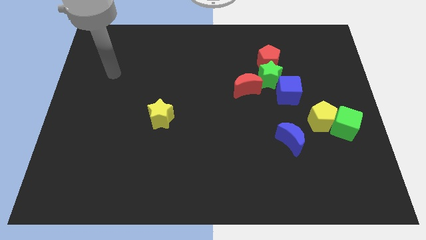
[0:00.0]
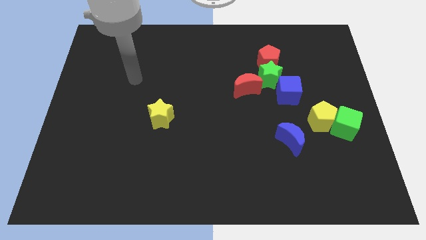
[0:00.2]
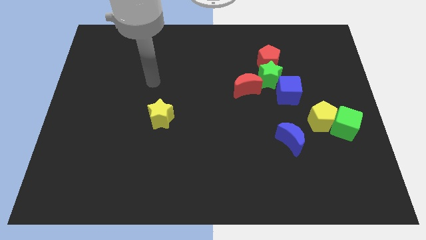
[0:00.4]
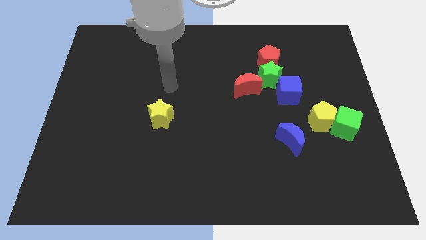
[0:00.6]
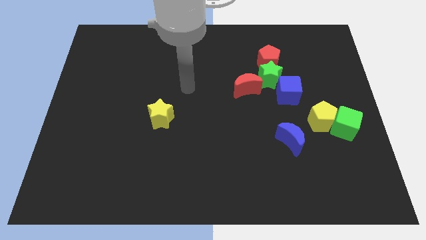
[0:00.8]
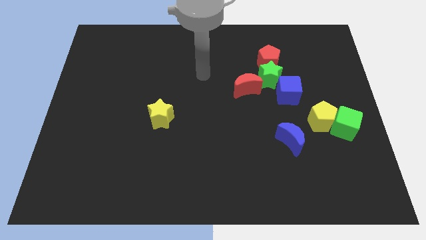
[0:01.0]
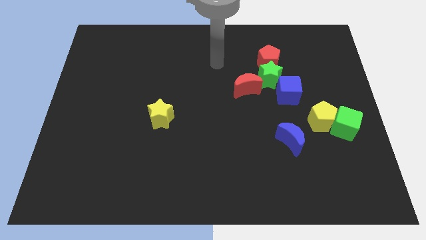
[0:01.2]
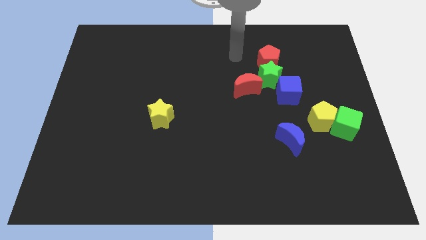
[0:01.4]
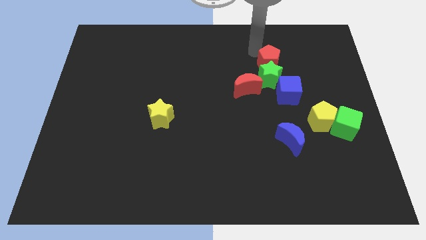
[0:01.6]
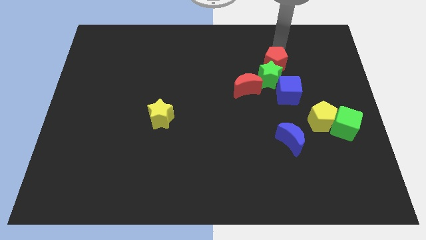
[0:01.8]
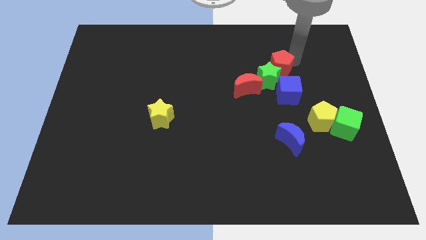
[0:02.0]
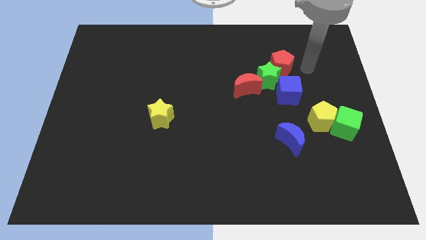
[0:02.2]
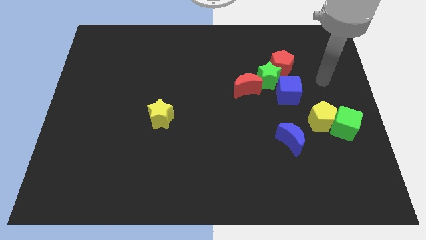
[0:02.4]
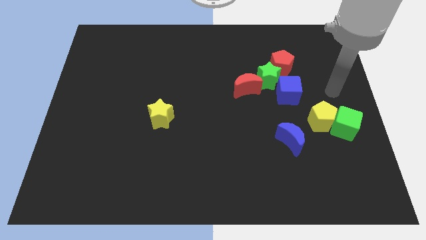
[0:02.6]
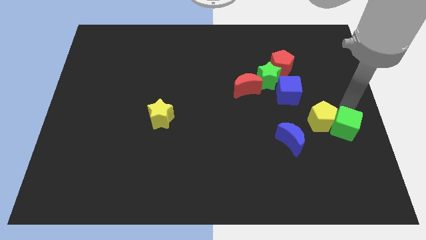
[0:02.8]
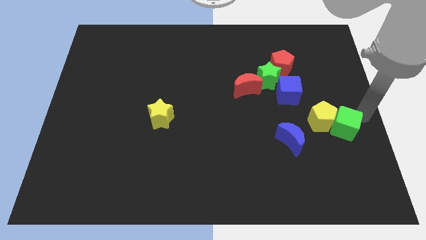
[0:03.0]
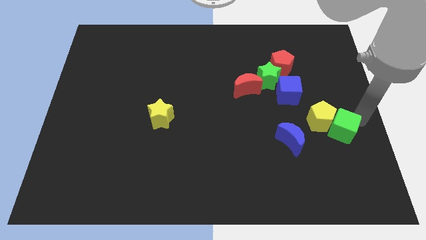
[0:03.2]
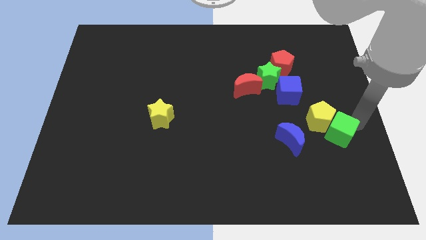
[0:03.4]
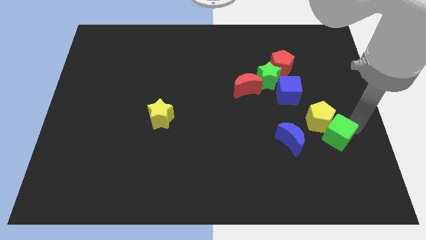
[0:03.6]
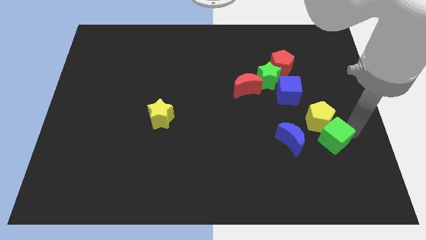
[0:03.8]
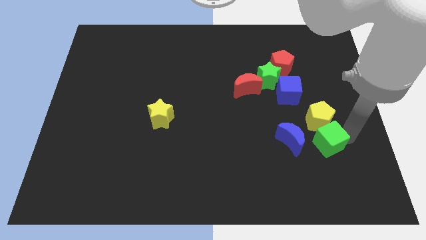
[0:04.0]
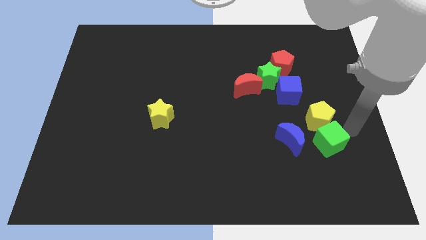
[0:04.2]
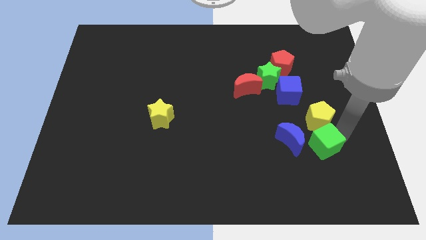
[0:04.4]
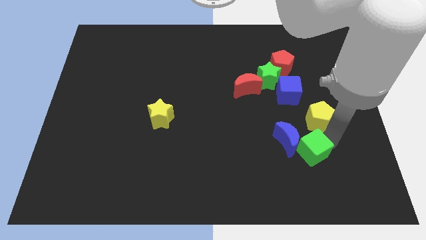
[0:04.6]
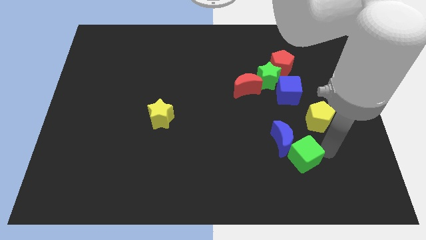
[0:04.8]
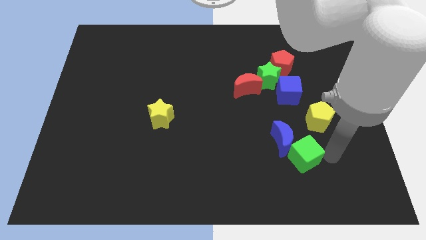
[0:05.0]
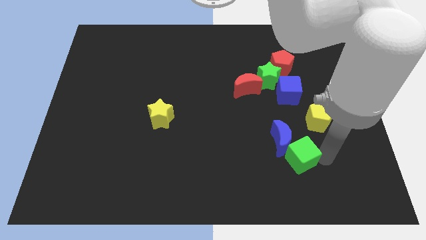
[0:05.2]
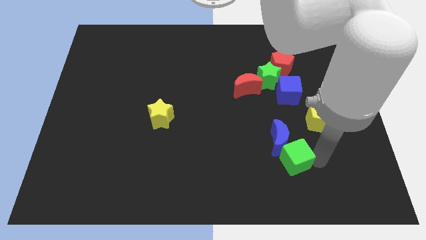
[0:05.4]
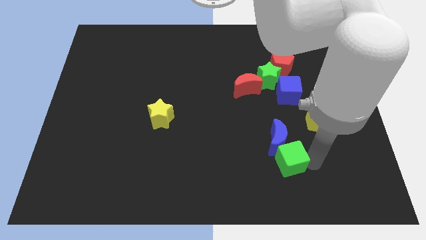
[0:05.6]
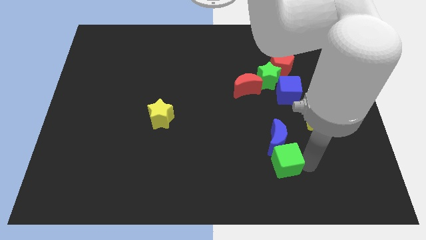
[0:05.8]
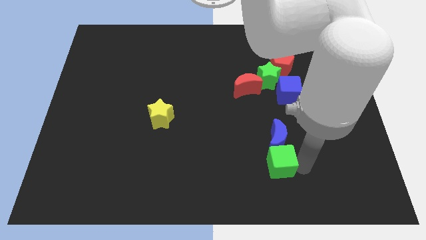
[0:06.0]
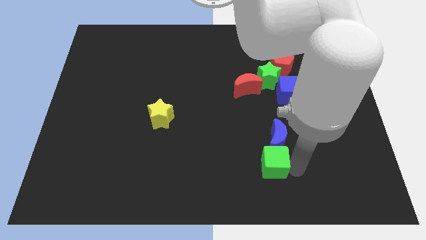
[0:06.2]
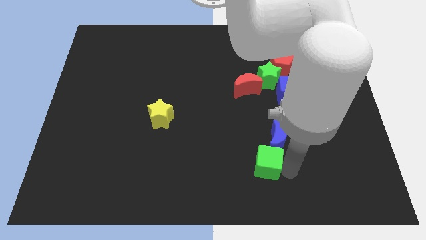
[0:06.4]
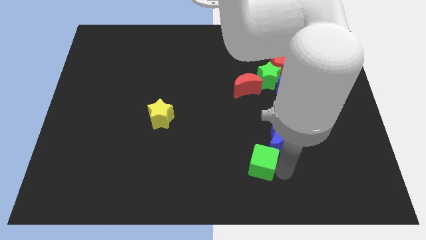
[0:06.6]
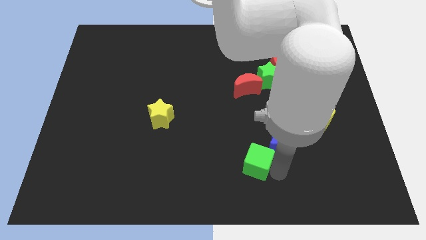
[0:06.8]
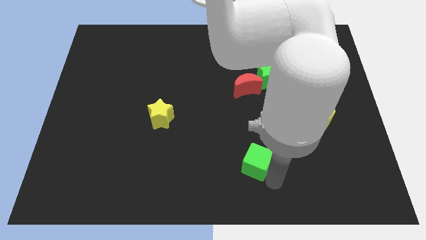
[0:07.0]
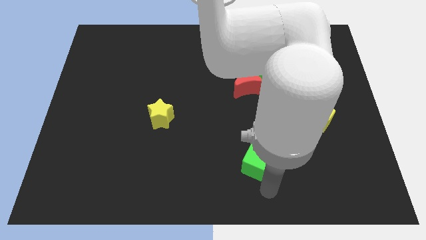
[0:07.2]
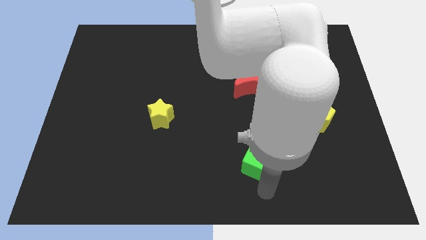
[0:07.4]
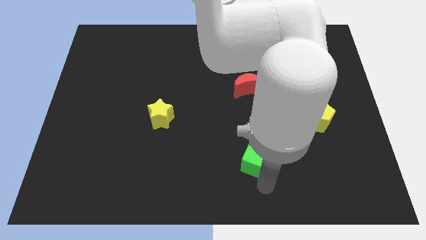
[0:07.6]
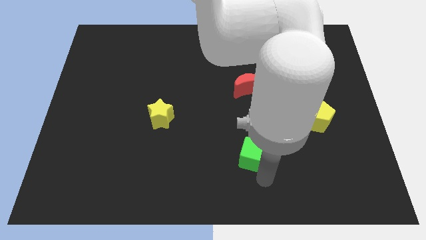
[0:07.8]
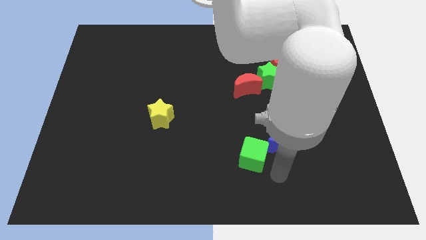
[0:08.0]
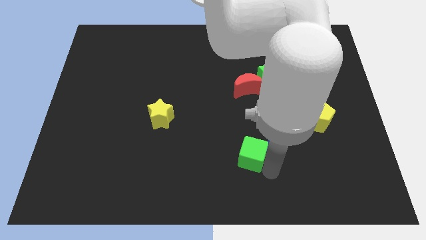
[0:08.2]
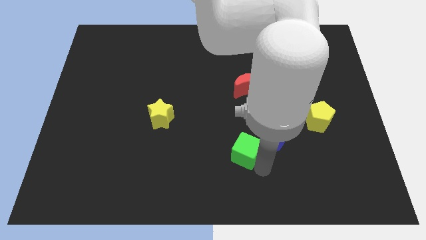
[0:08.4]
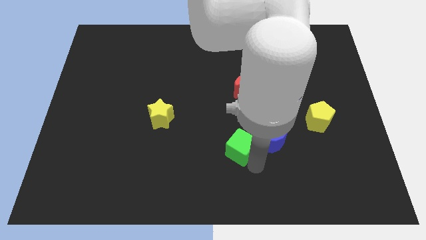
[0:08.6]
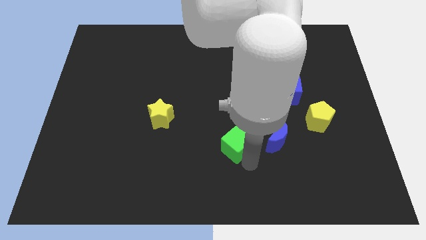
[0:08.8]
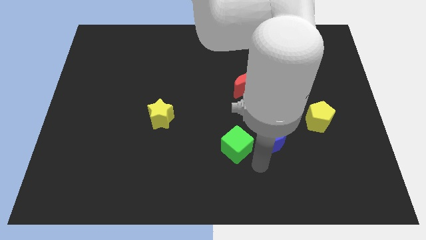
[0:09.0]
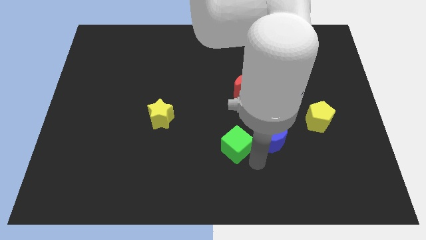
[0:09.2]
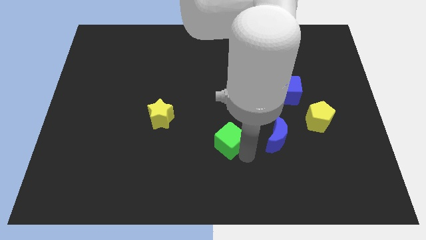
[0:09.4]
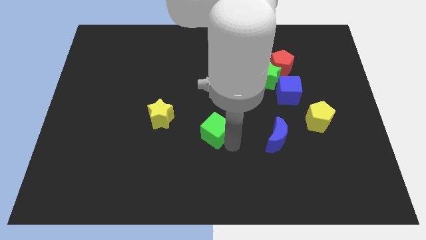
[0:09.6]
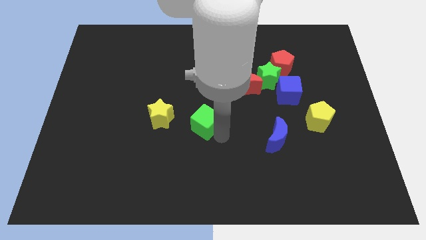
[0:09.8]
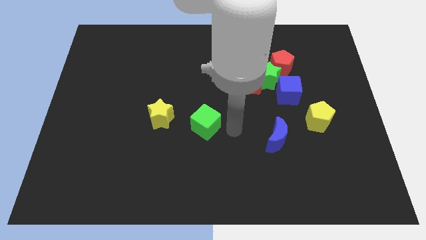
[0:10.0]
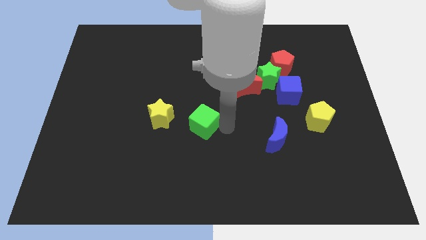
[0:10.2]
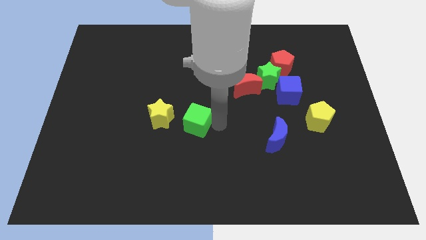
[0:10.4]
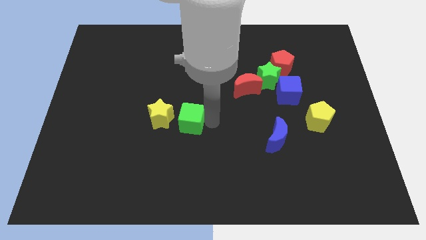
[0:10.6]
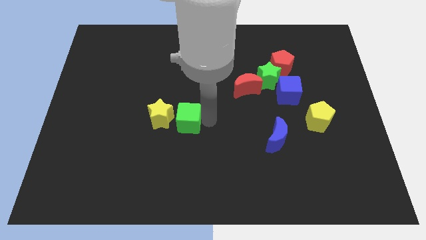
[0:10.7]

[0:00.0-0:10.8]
put the green cube close to the yellow star

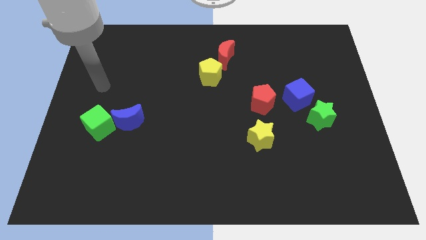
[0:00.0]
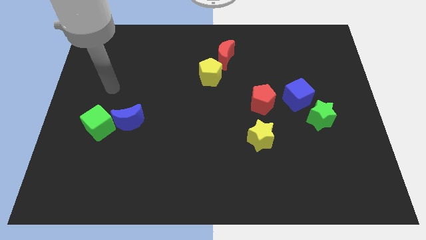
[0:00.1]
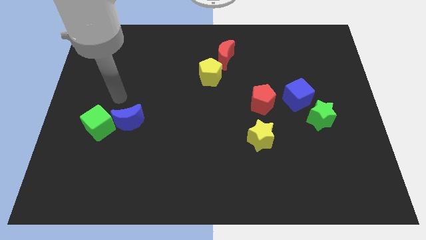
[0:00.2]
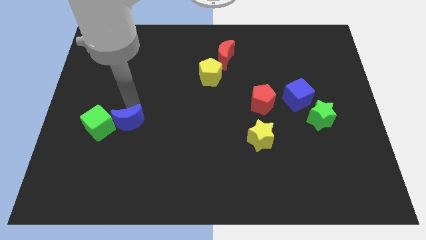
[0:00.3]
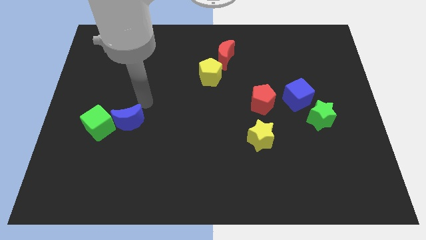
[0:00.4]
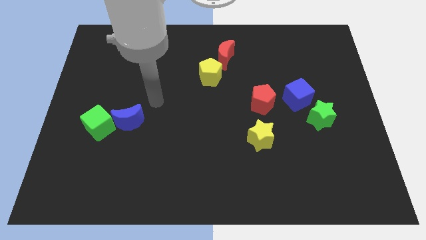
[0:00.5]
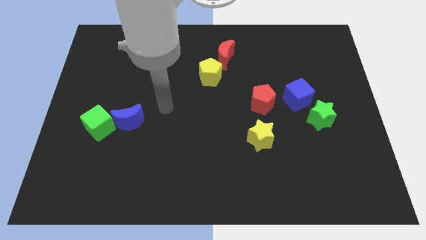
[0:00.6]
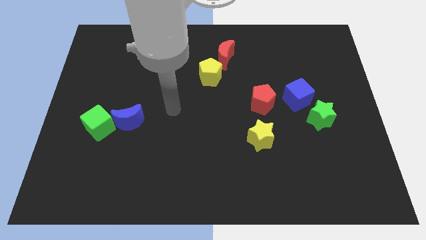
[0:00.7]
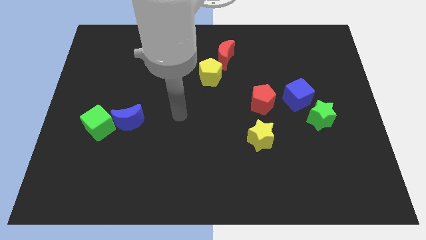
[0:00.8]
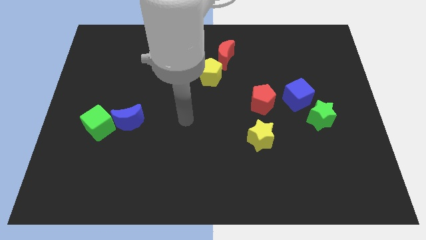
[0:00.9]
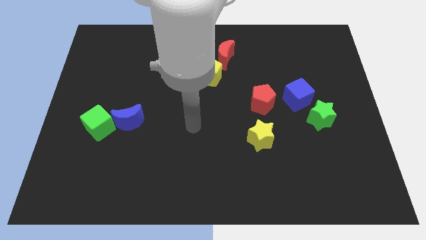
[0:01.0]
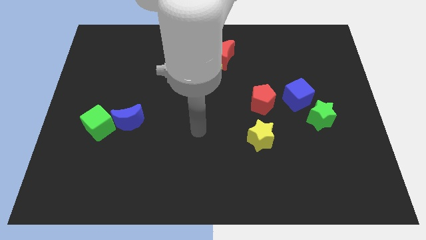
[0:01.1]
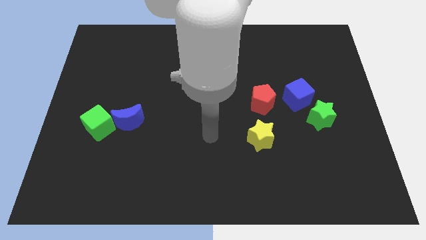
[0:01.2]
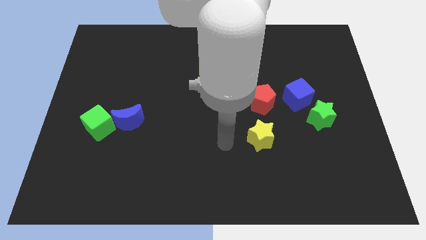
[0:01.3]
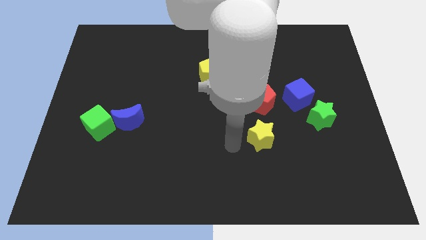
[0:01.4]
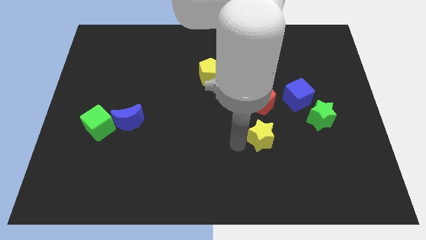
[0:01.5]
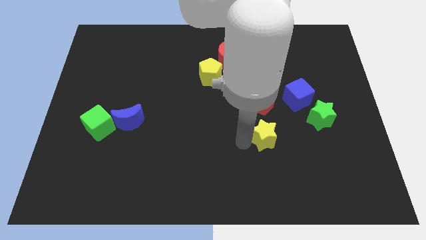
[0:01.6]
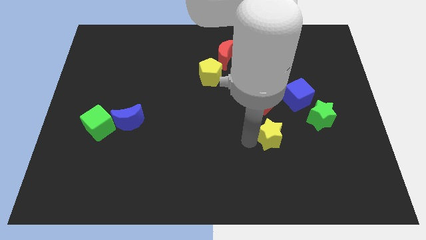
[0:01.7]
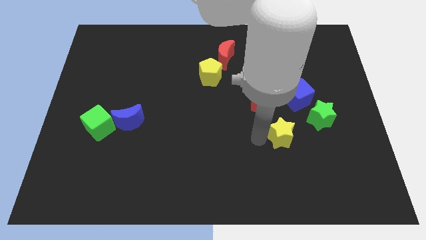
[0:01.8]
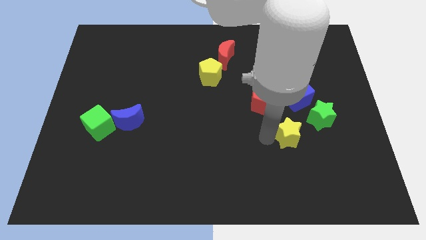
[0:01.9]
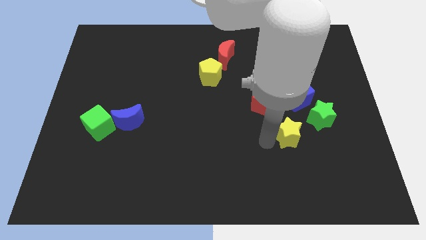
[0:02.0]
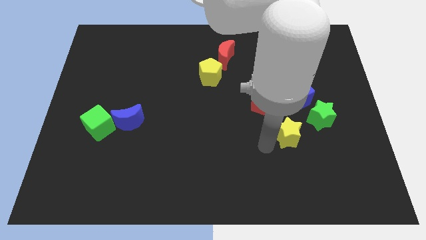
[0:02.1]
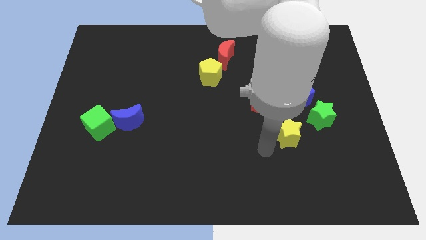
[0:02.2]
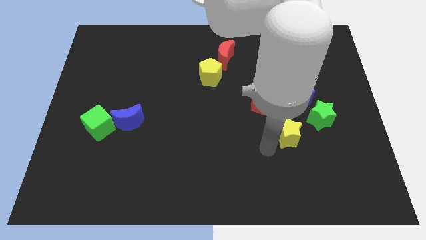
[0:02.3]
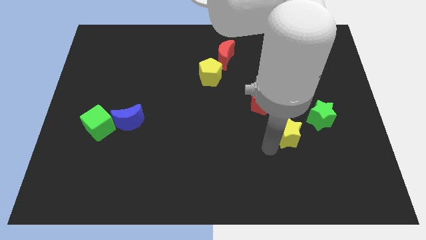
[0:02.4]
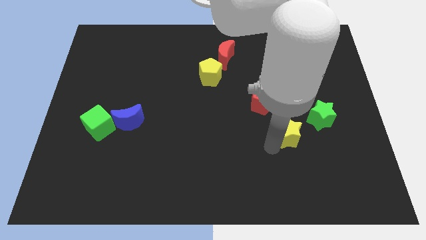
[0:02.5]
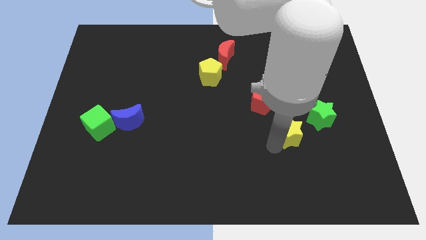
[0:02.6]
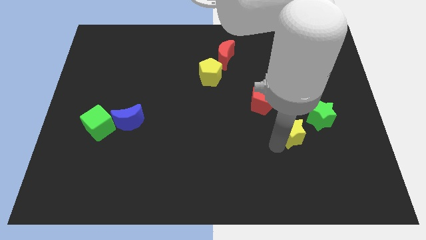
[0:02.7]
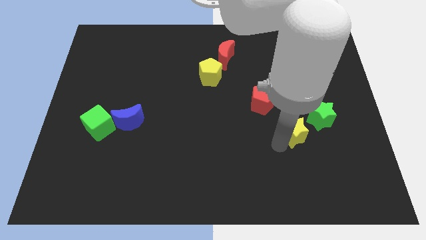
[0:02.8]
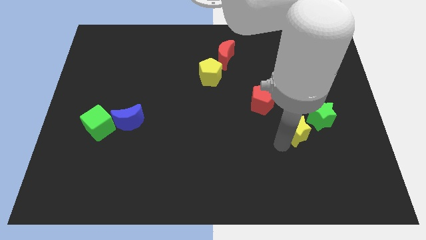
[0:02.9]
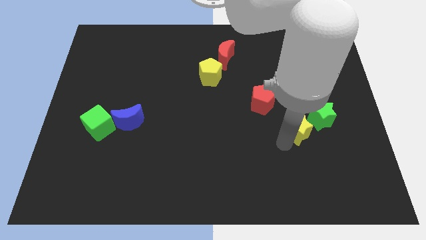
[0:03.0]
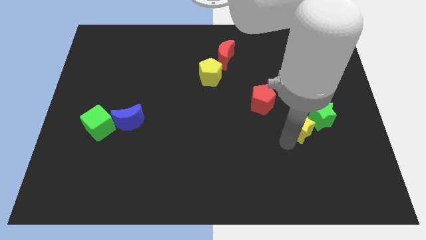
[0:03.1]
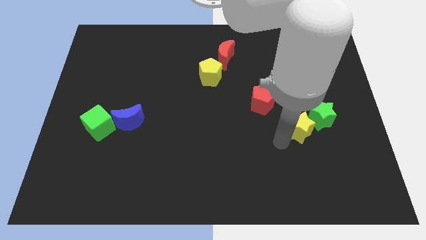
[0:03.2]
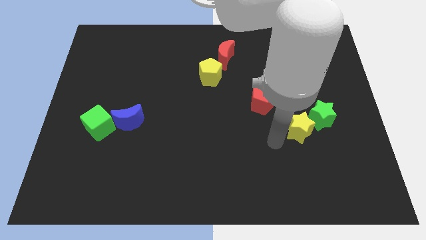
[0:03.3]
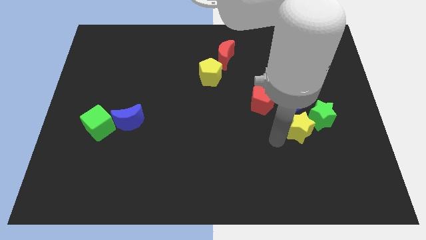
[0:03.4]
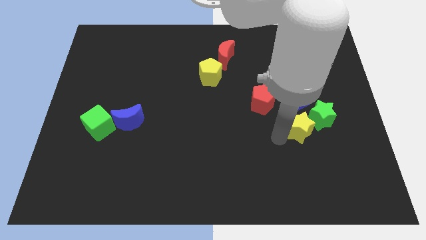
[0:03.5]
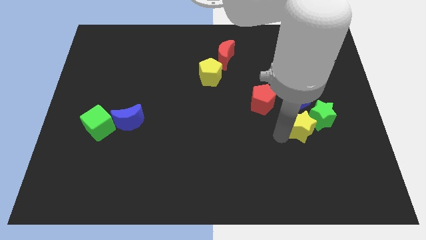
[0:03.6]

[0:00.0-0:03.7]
push the yellow star to the green star
